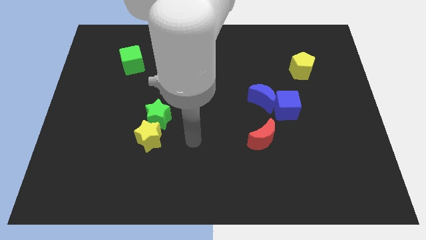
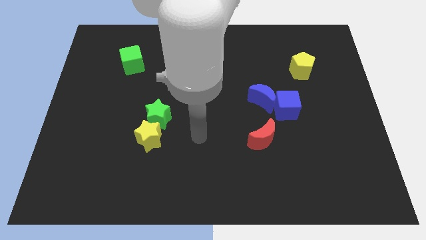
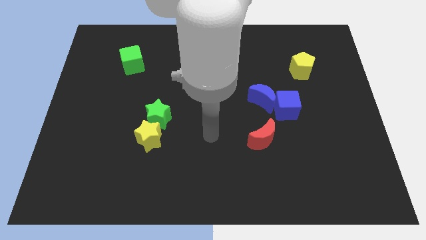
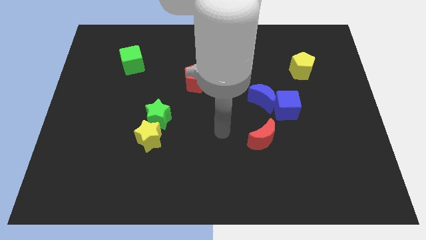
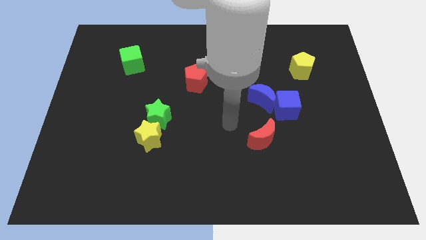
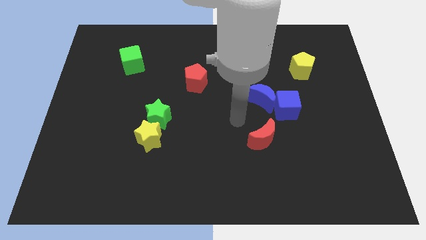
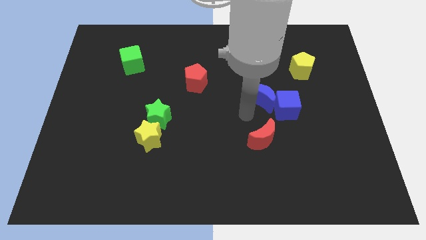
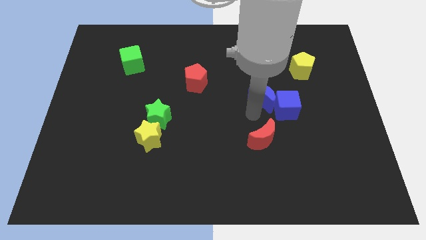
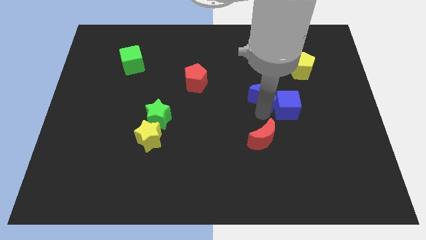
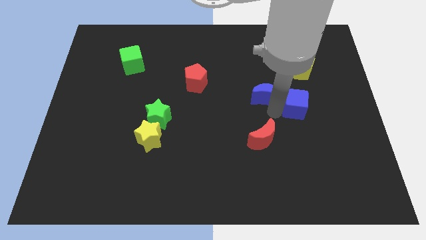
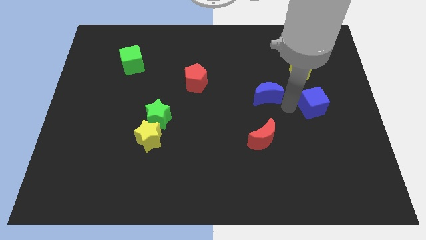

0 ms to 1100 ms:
separate the blue moon from the blue cube

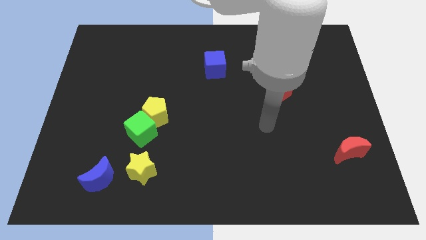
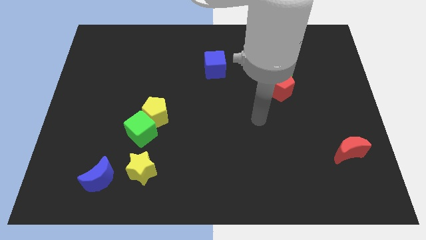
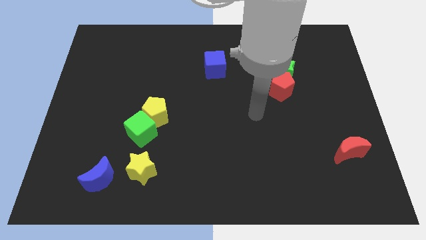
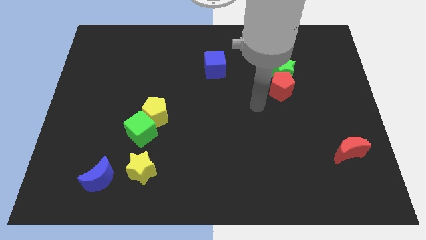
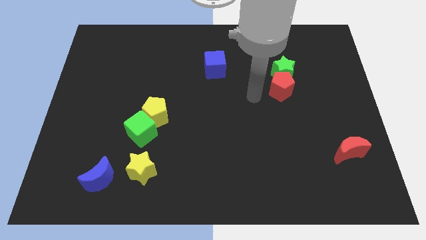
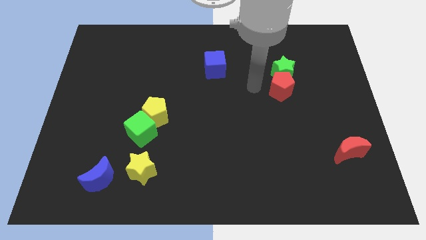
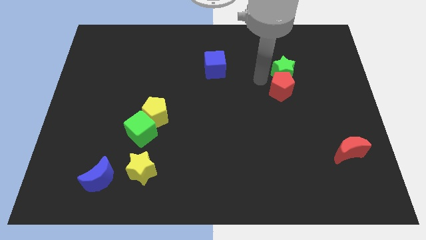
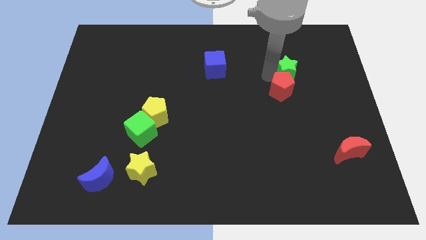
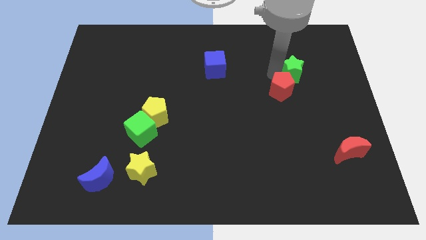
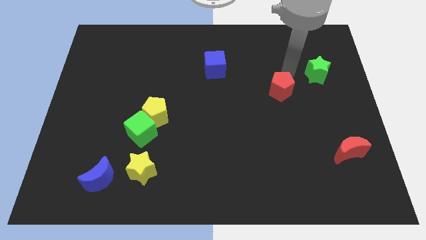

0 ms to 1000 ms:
pull the red pentagon apart from the green star

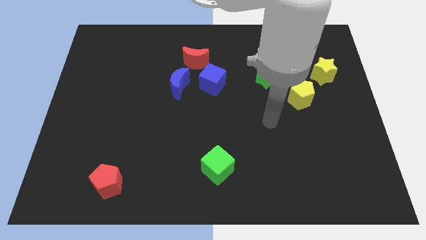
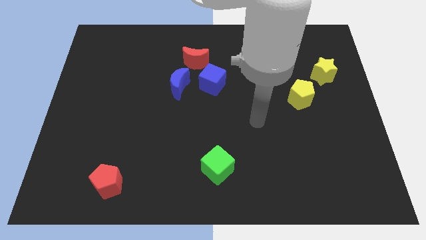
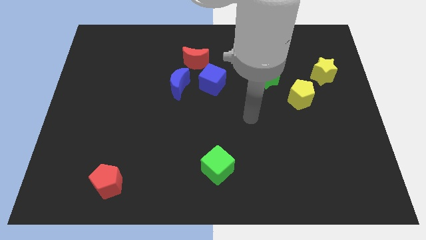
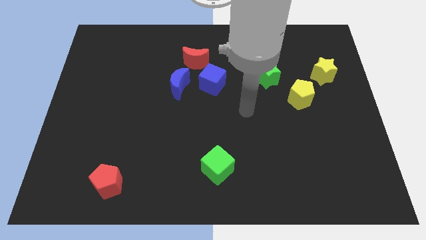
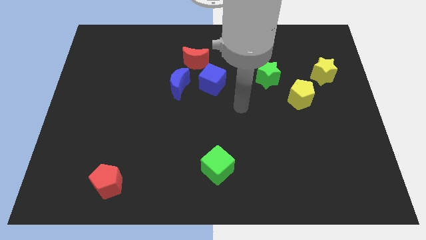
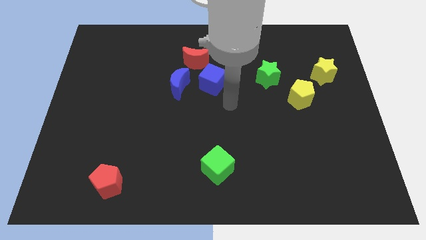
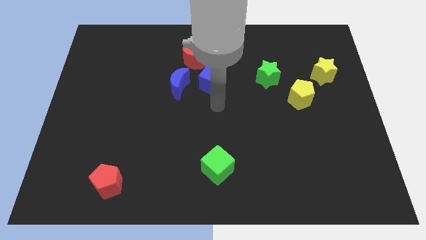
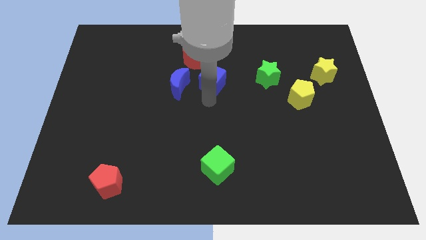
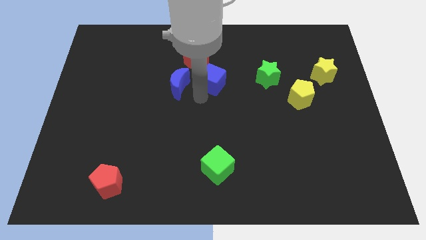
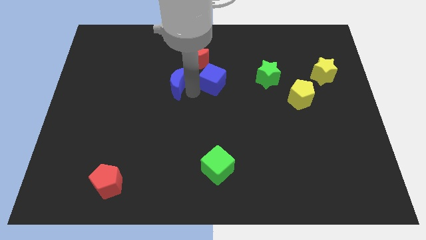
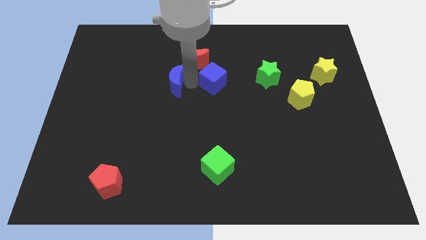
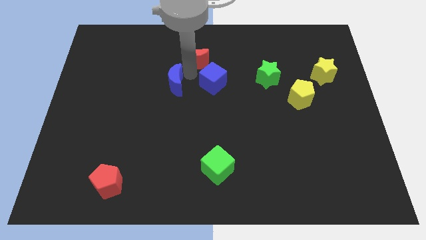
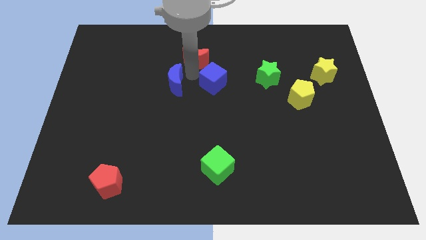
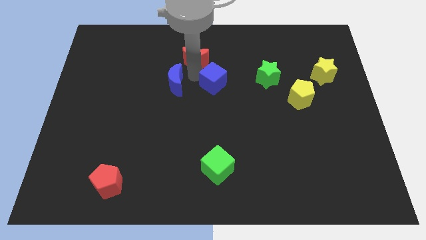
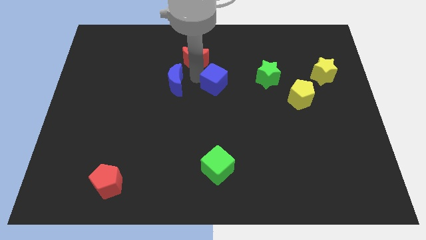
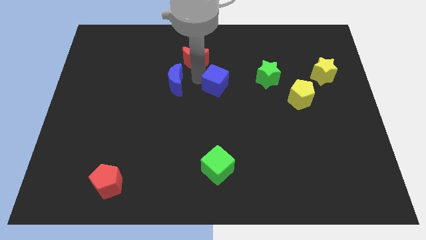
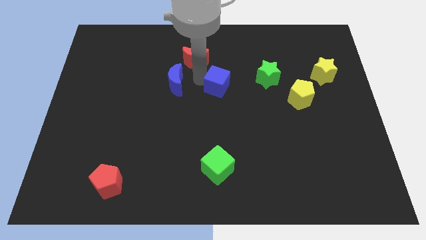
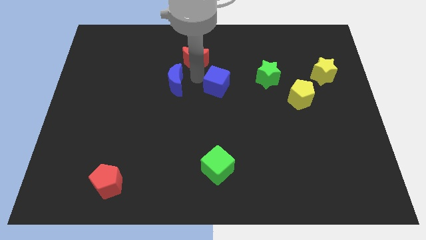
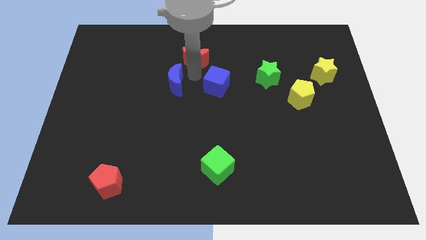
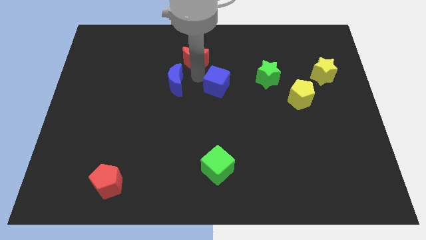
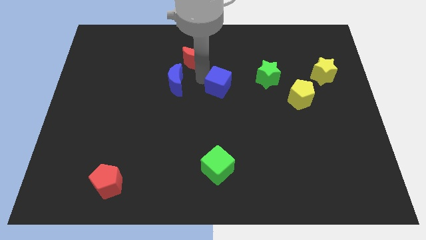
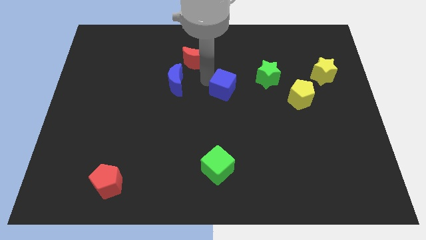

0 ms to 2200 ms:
separate the blue cube from the blue moon and red moon

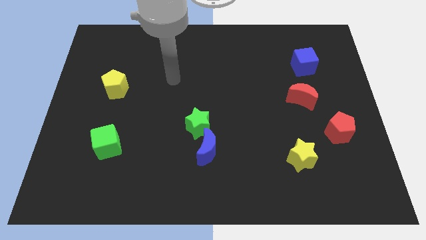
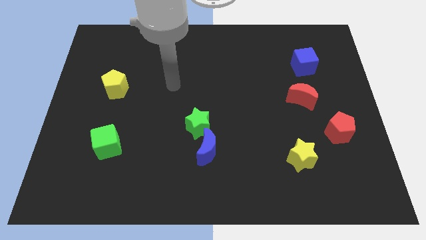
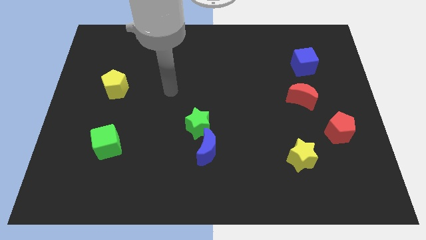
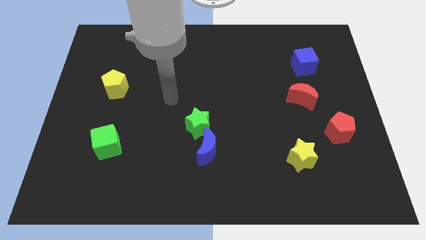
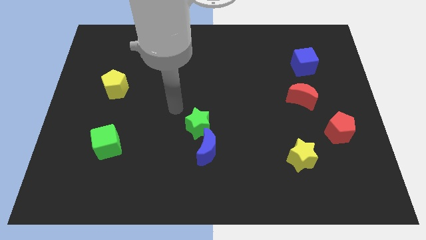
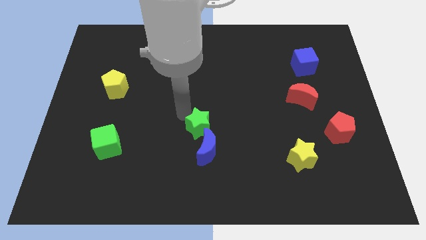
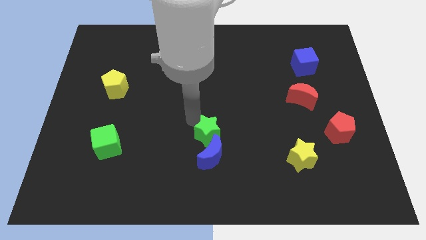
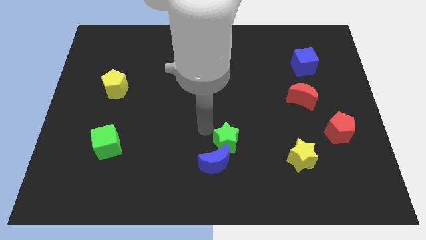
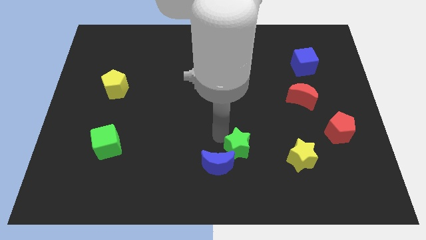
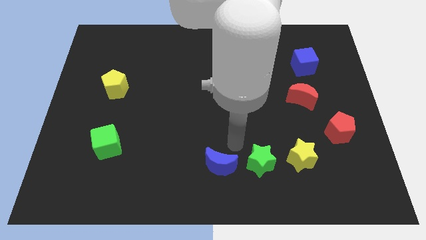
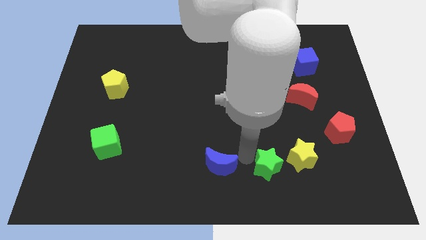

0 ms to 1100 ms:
move the blue moon away from the green star

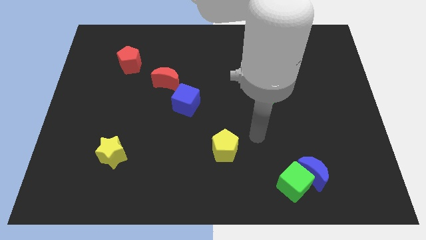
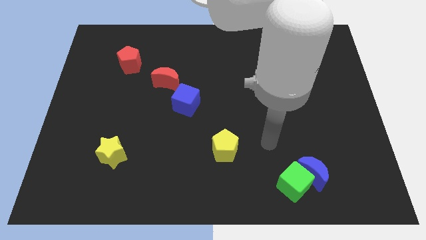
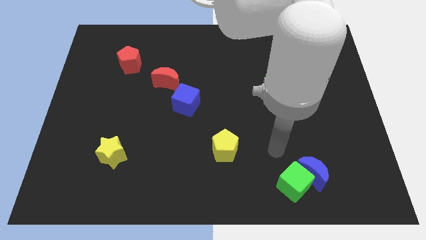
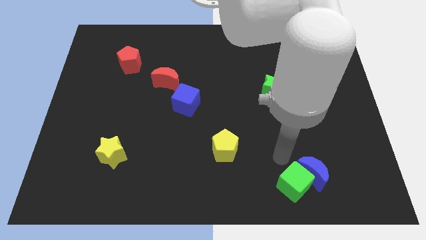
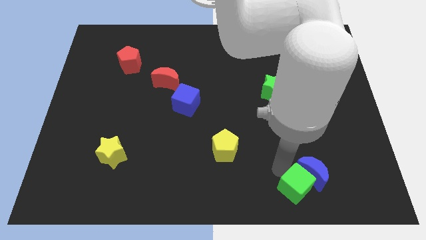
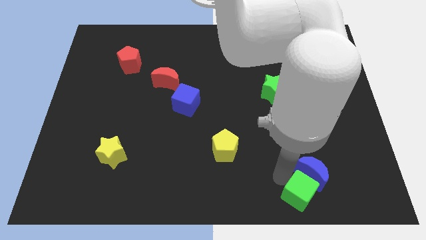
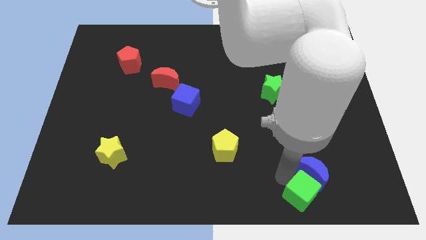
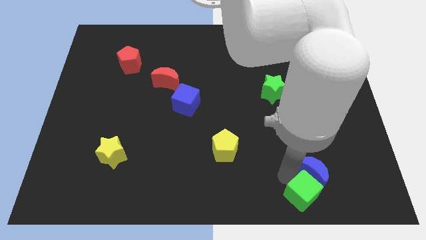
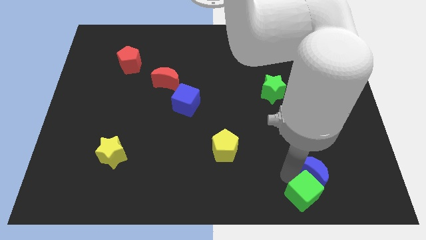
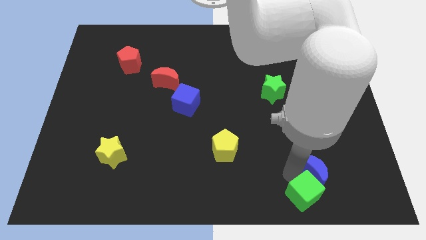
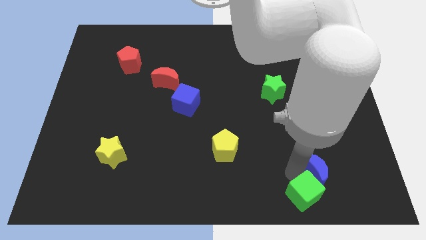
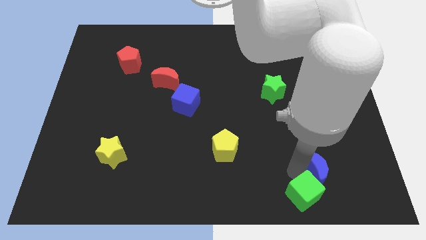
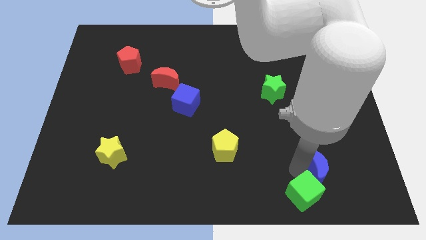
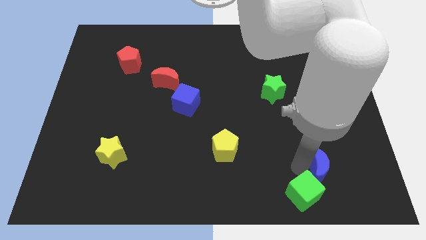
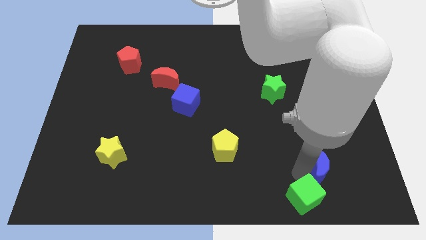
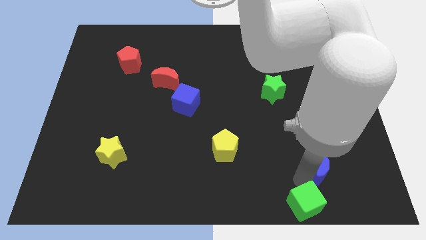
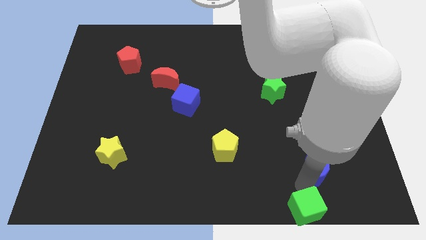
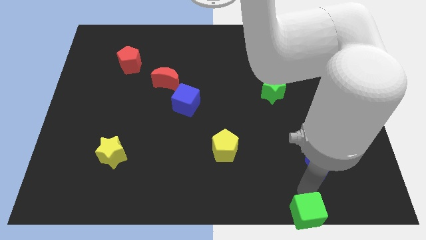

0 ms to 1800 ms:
move the blue moon away from the green cube

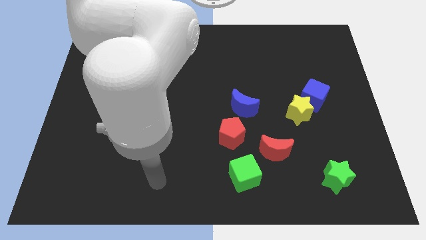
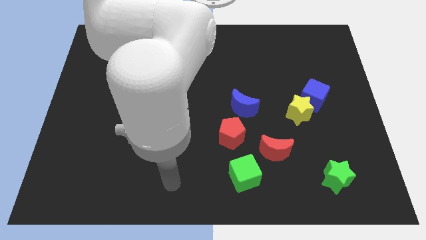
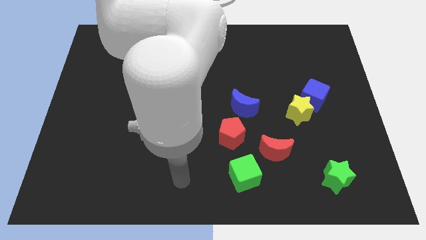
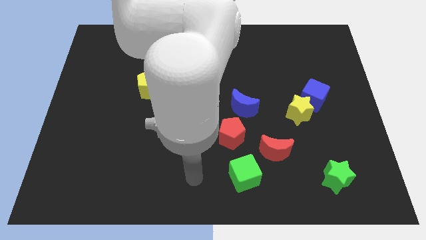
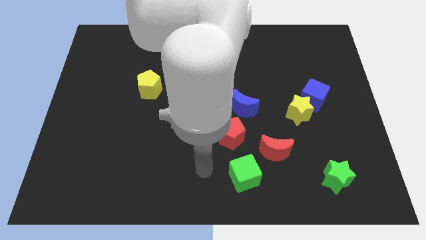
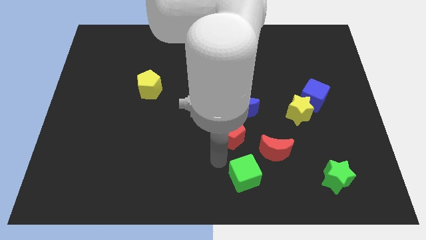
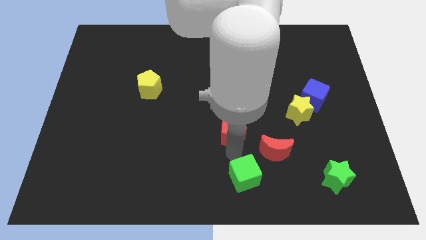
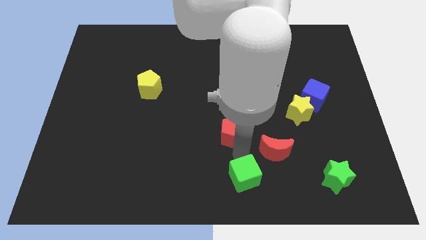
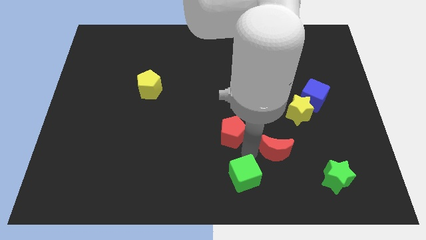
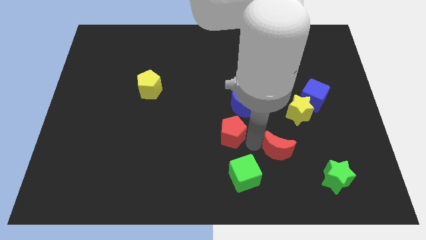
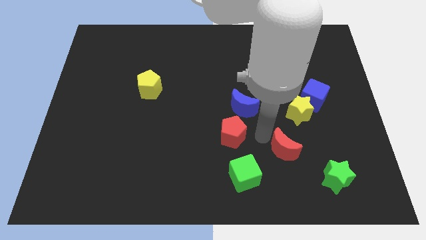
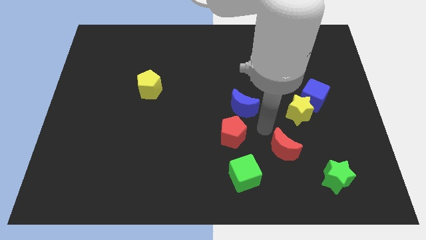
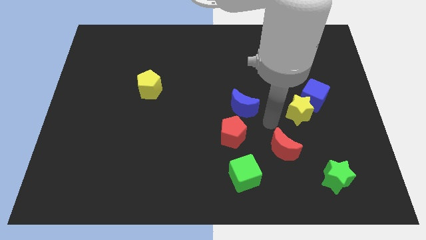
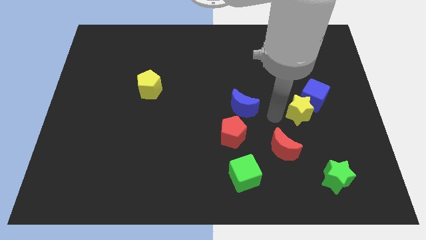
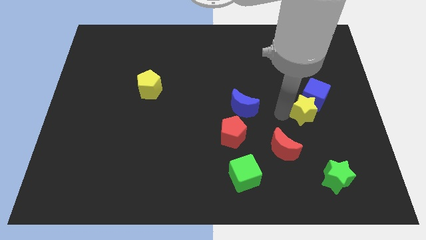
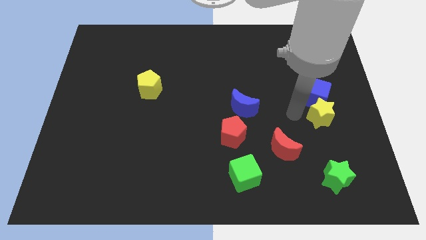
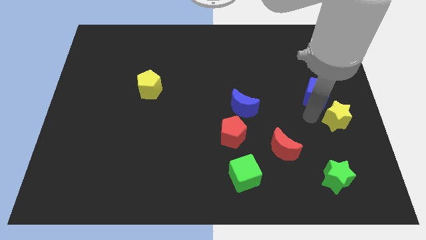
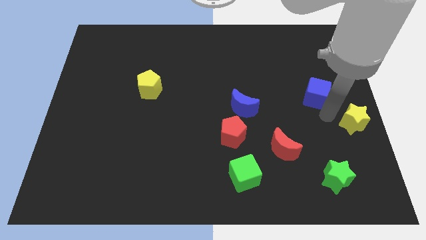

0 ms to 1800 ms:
separate the blue cube from the yellow star

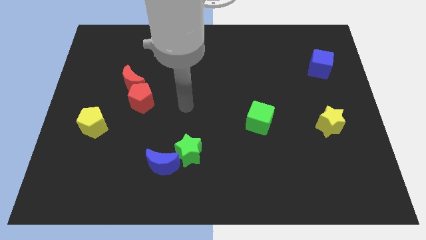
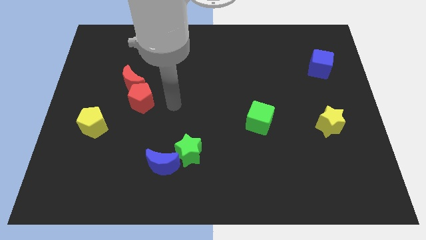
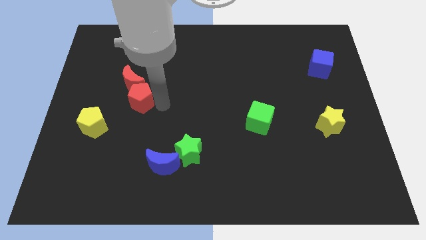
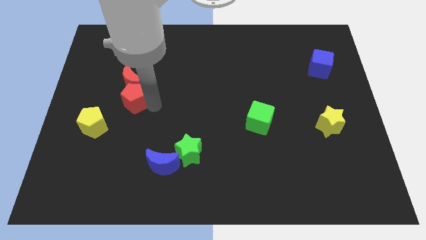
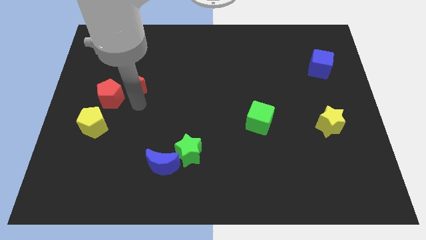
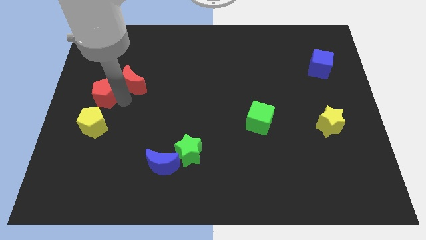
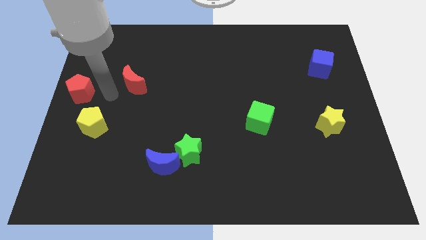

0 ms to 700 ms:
move the red moon away from the red pentagon
